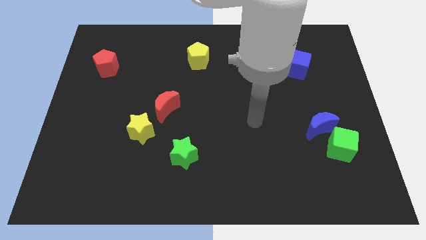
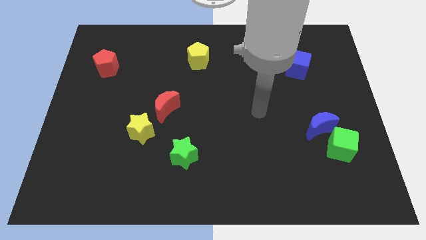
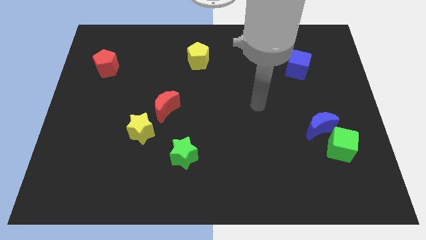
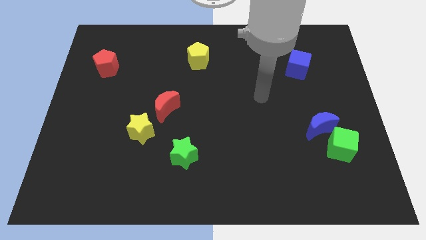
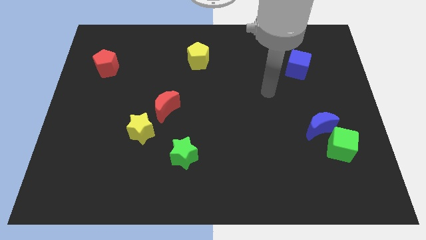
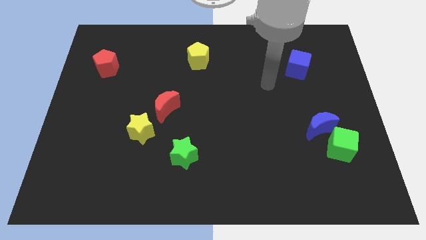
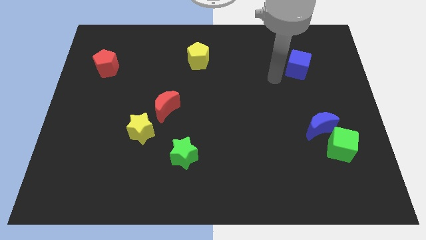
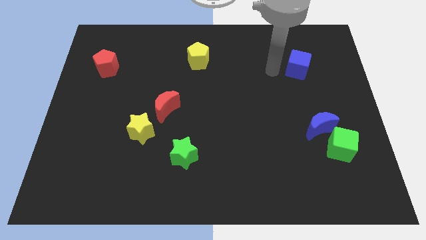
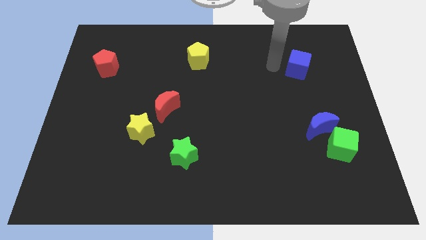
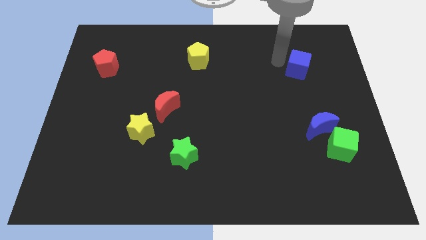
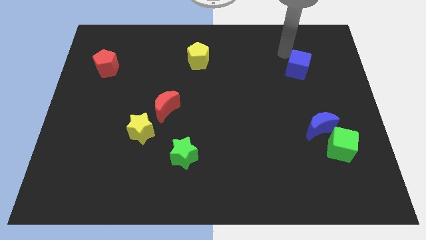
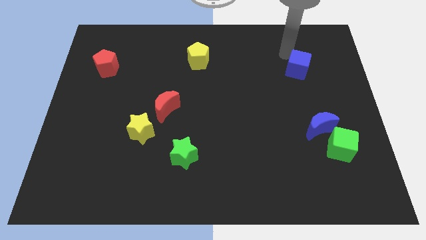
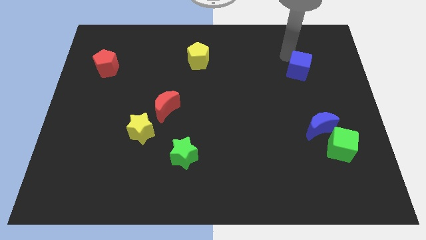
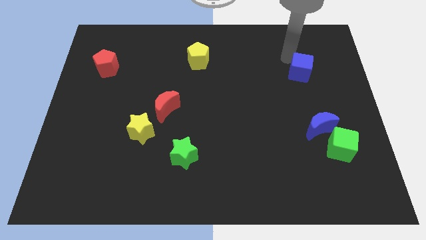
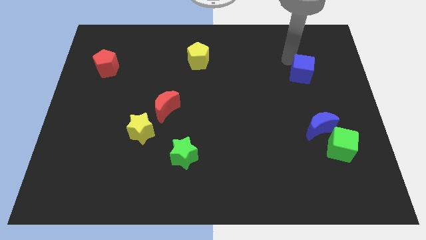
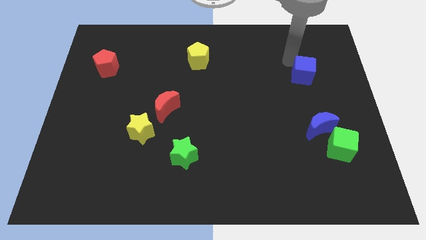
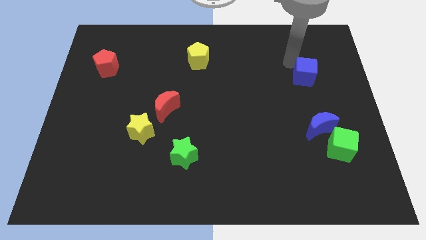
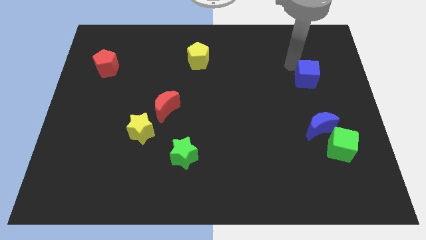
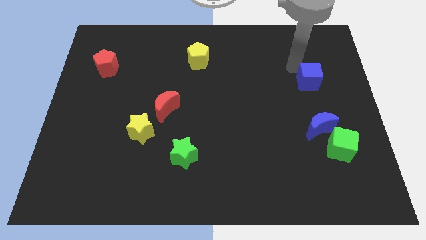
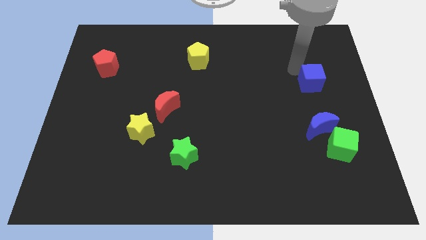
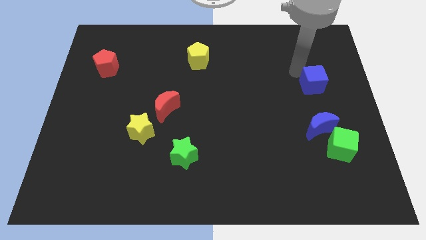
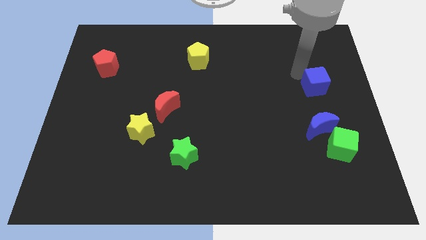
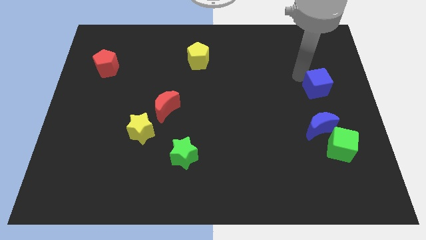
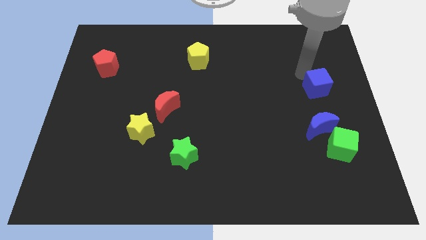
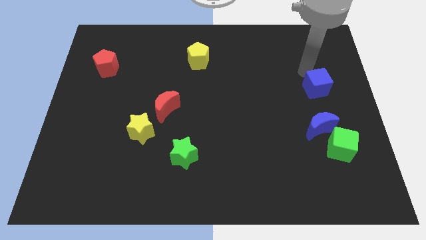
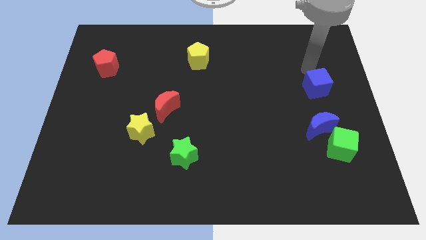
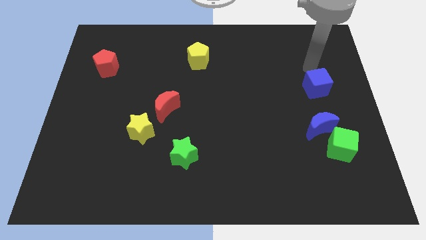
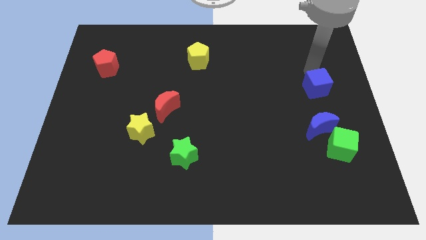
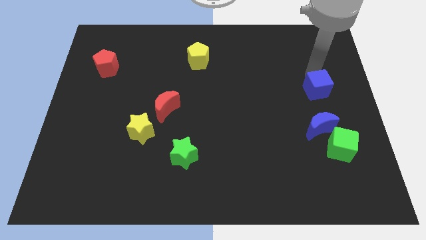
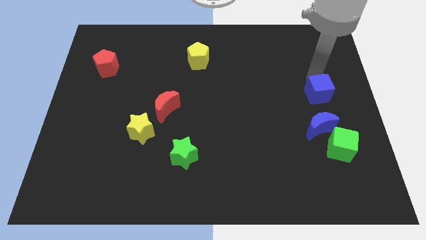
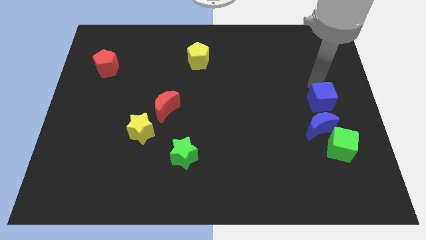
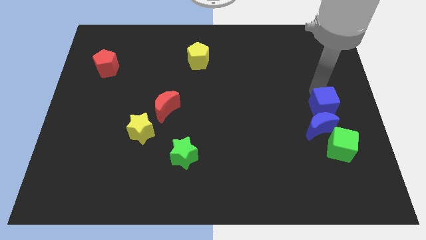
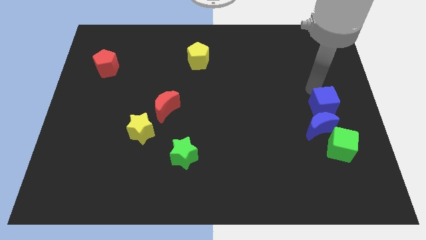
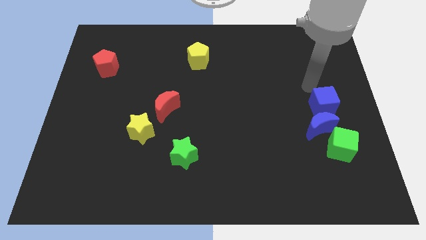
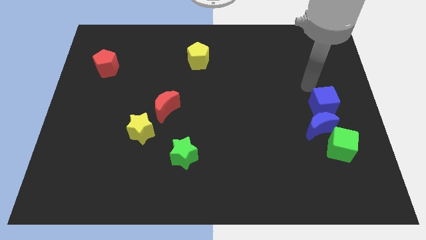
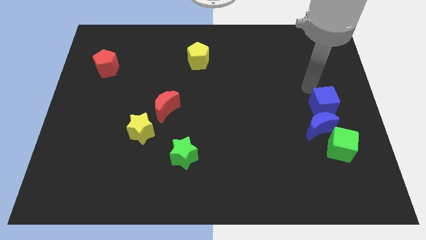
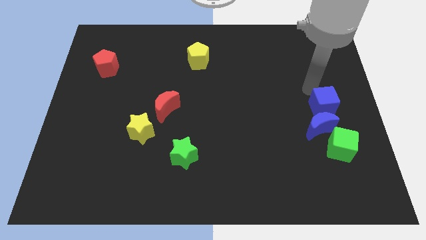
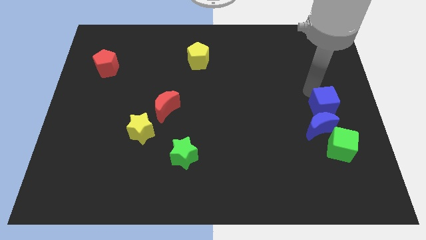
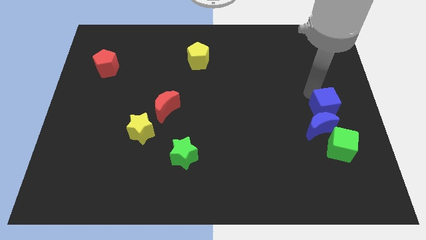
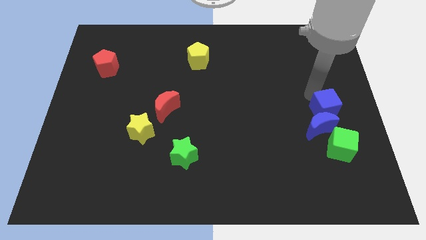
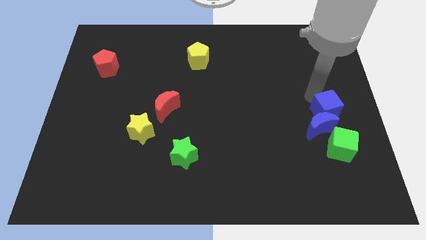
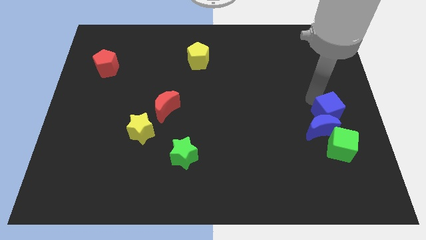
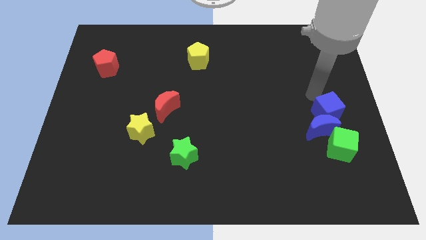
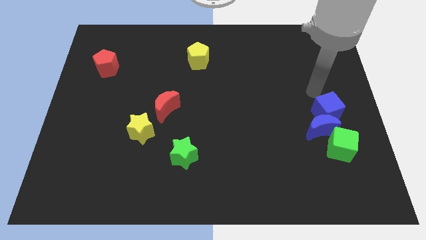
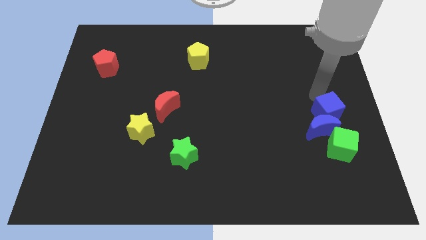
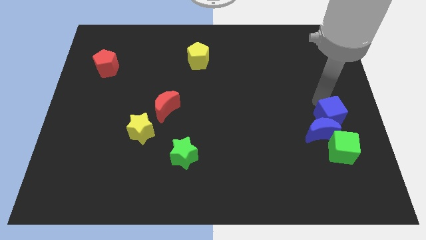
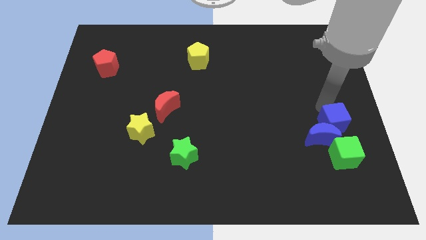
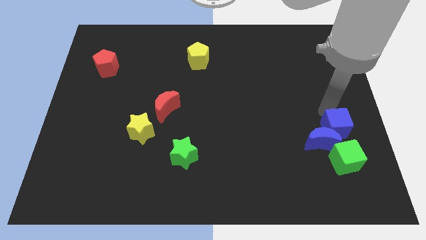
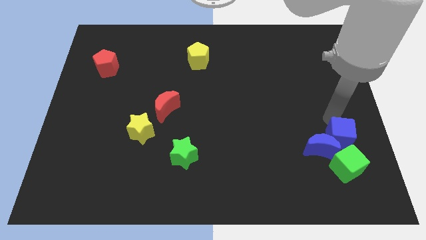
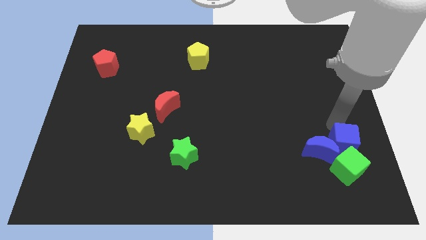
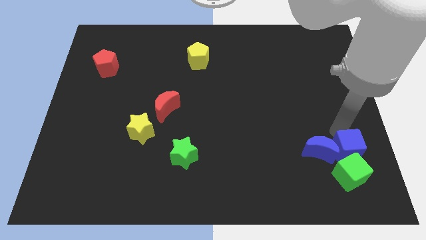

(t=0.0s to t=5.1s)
put the blue cube towards the green cube

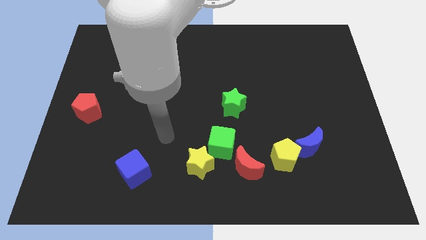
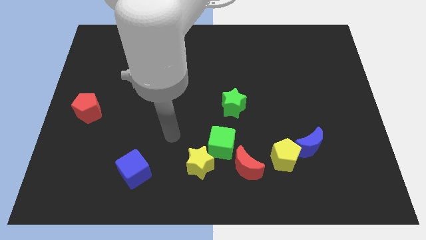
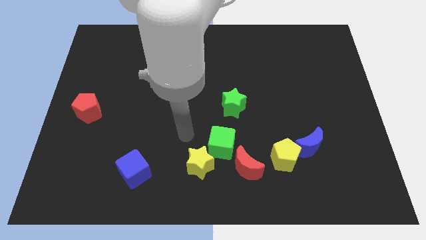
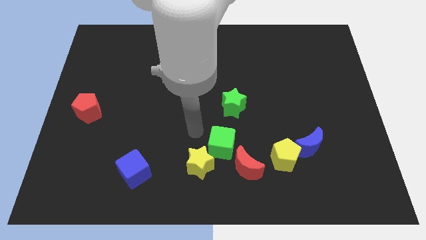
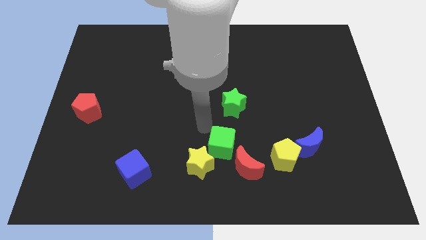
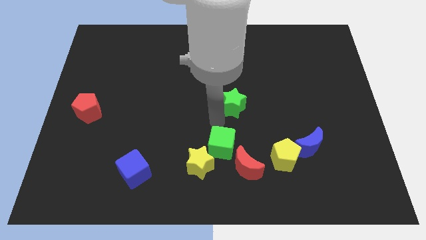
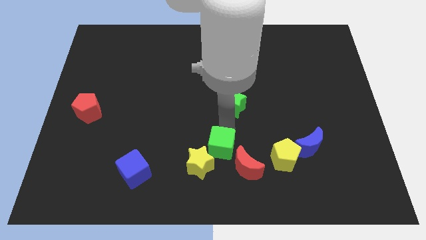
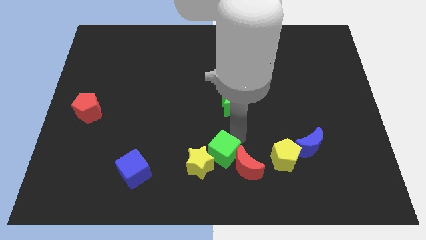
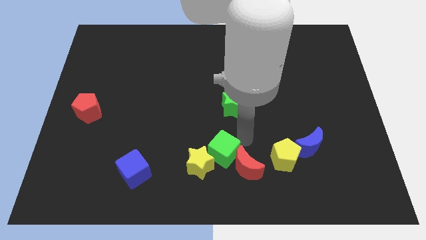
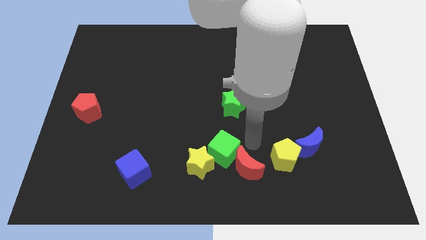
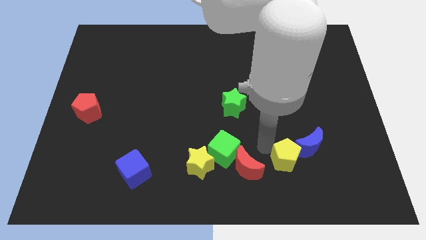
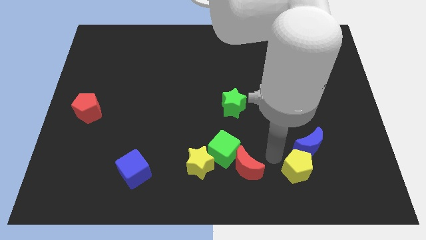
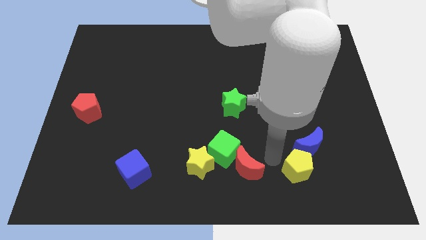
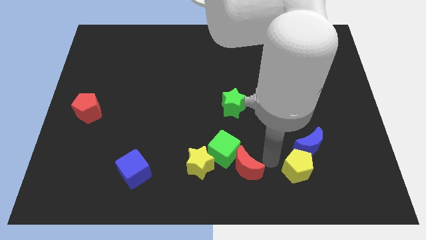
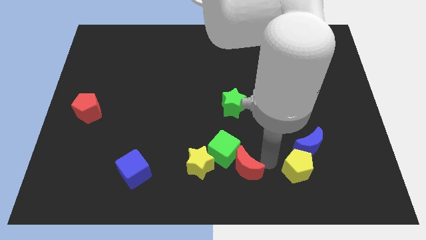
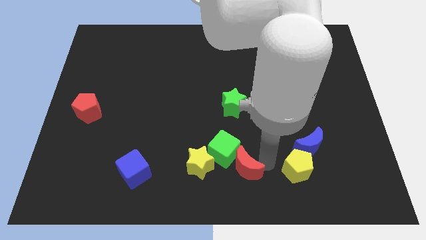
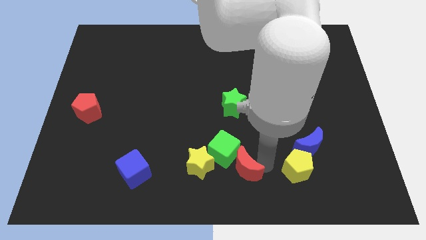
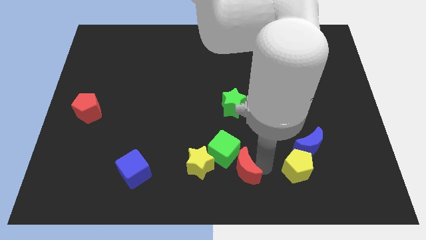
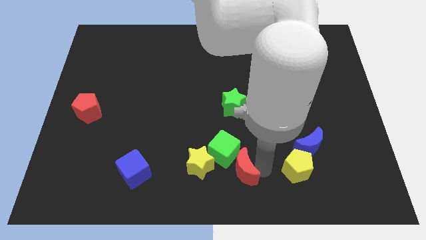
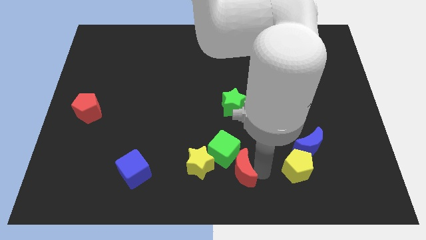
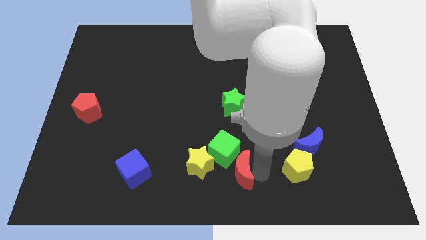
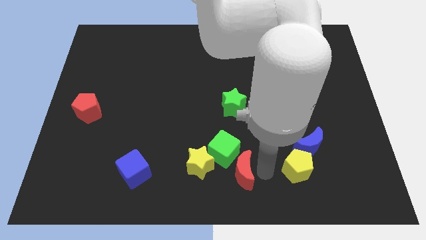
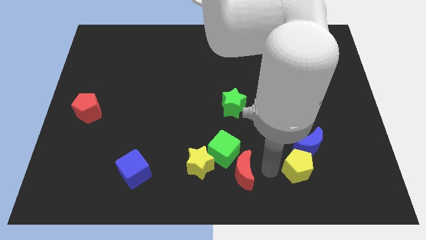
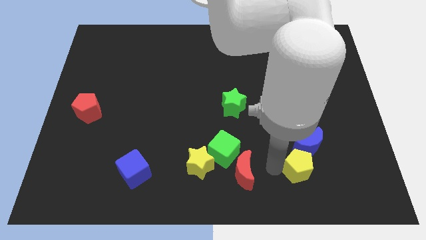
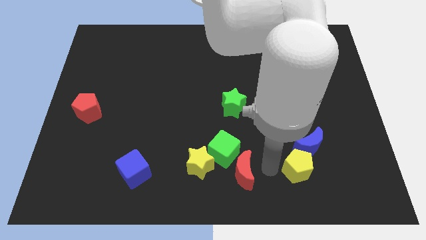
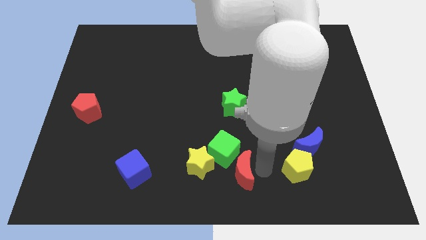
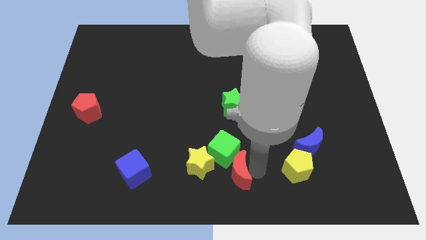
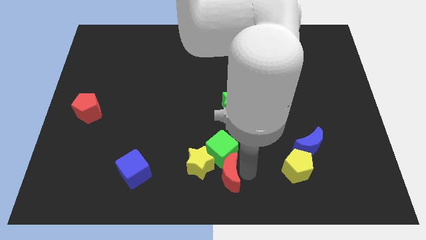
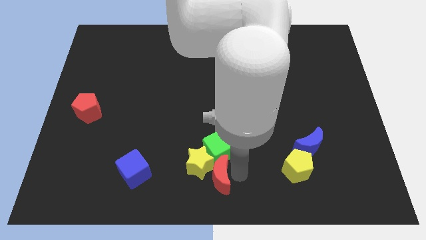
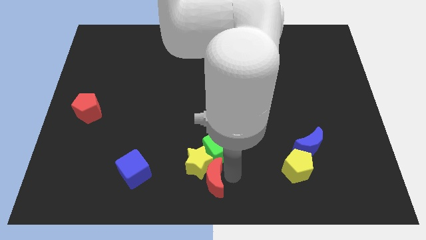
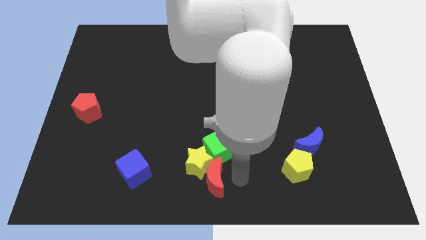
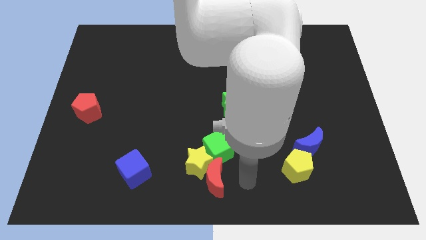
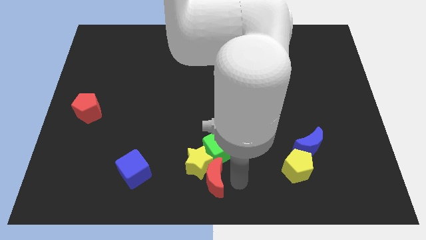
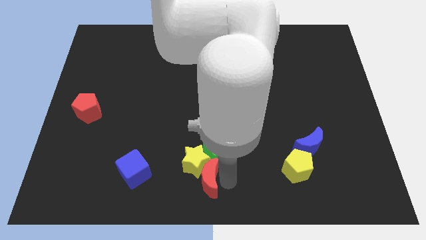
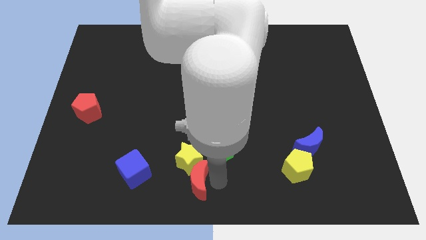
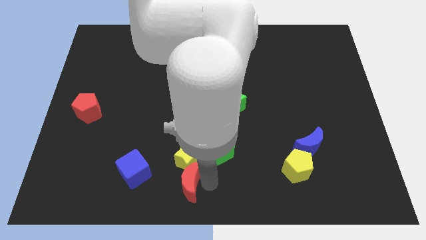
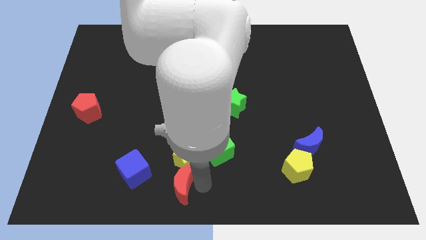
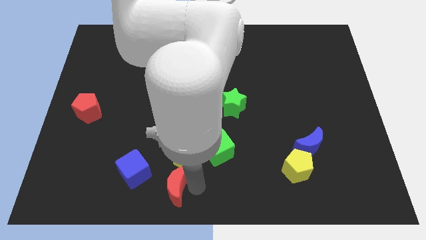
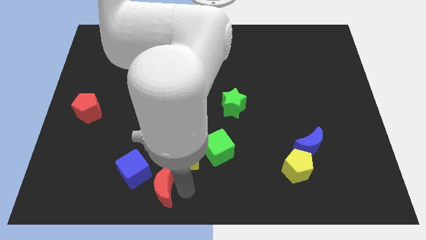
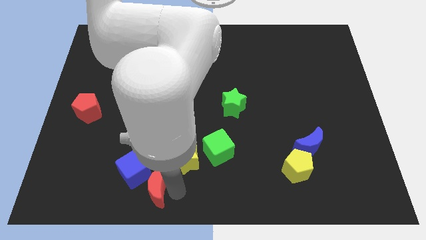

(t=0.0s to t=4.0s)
push the red moon next to the blue cube
